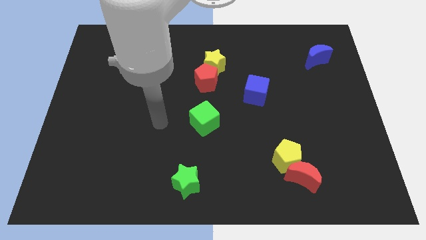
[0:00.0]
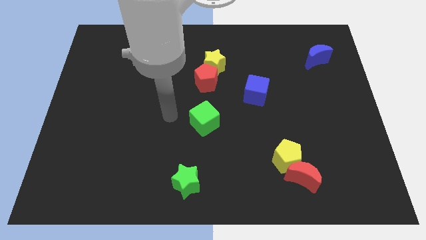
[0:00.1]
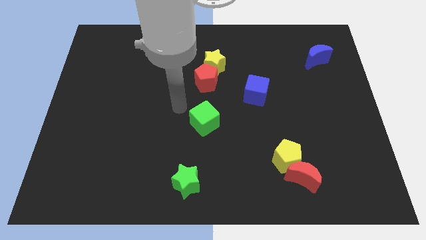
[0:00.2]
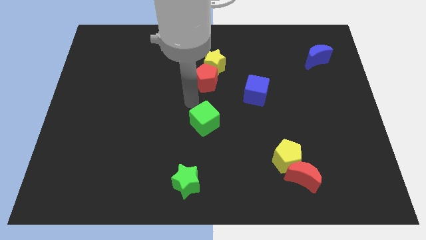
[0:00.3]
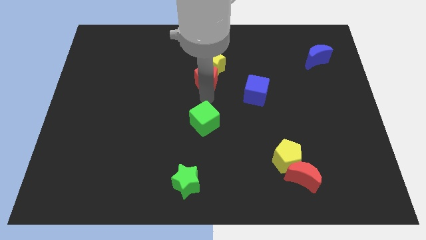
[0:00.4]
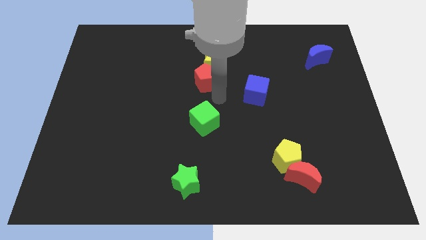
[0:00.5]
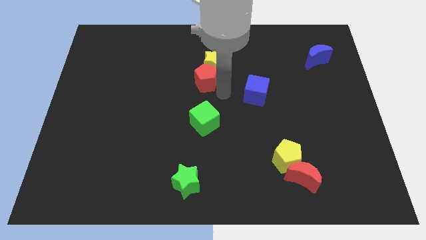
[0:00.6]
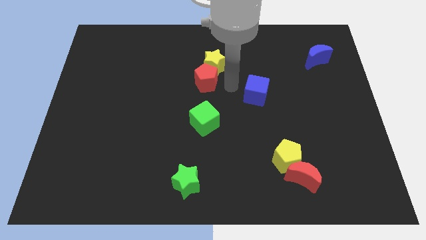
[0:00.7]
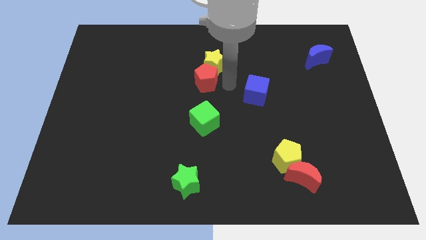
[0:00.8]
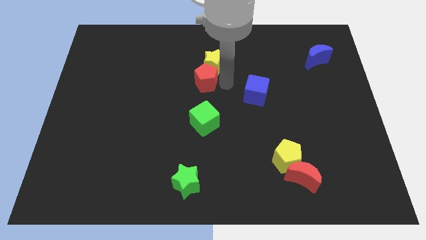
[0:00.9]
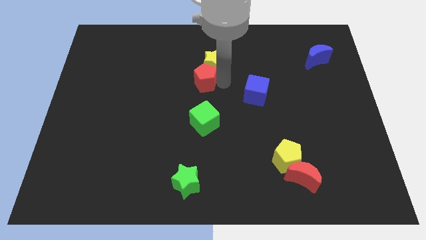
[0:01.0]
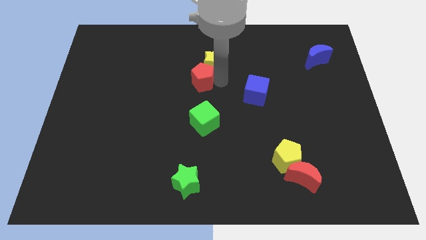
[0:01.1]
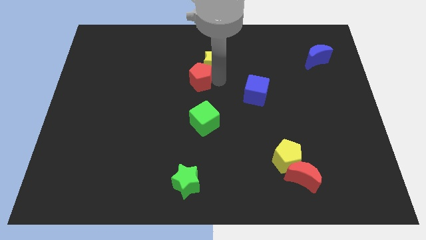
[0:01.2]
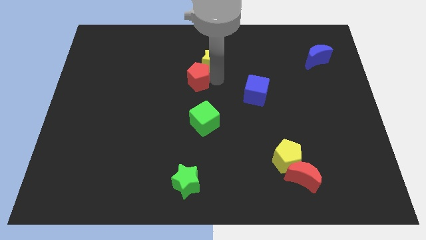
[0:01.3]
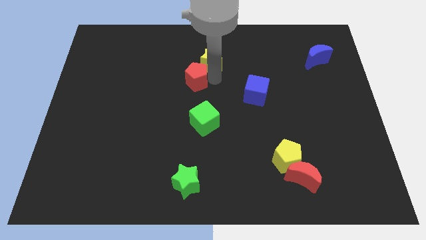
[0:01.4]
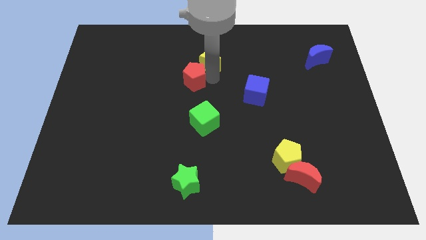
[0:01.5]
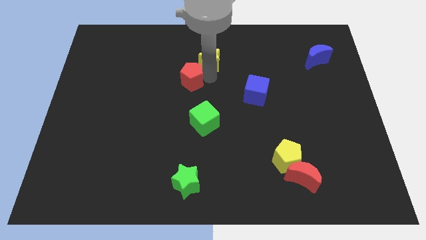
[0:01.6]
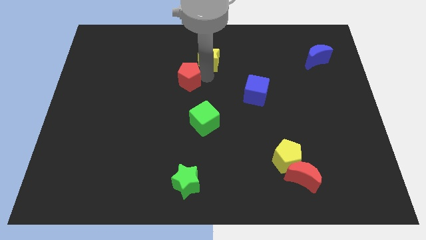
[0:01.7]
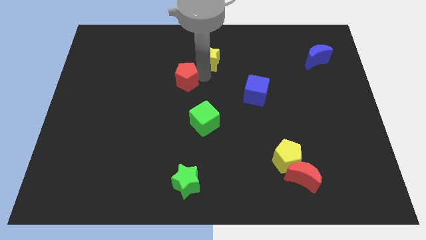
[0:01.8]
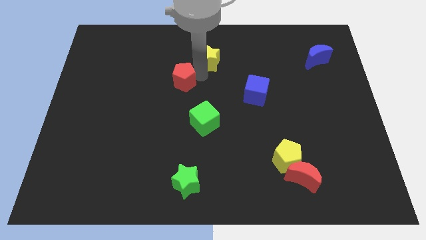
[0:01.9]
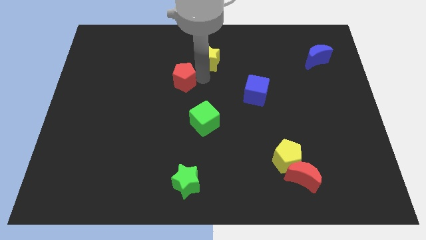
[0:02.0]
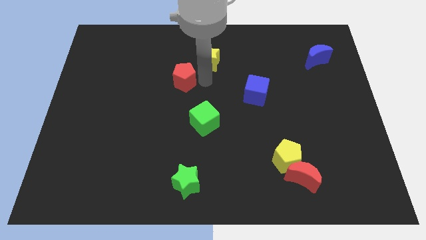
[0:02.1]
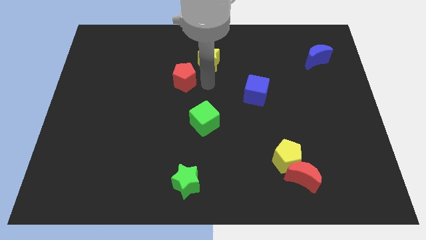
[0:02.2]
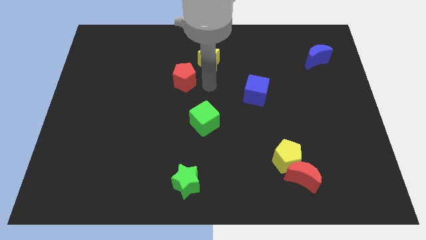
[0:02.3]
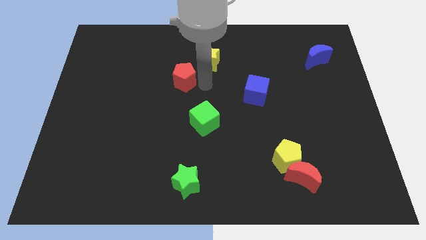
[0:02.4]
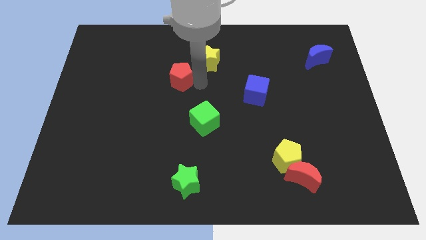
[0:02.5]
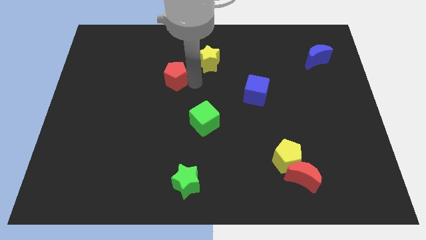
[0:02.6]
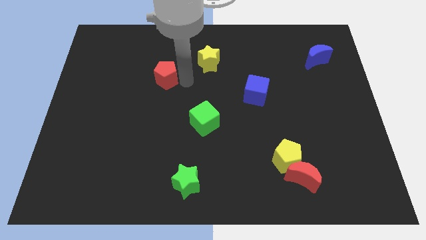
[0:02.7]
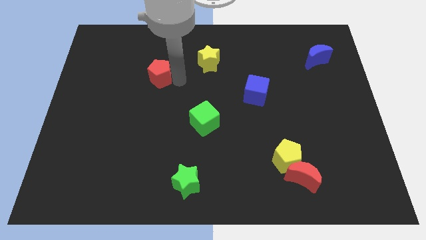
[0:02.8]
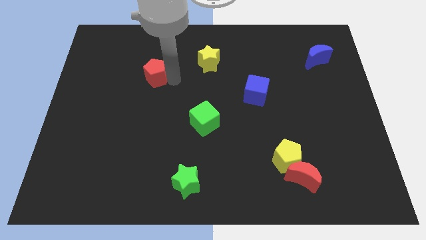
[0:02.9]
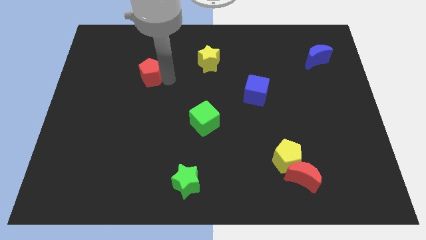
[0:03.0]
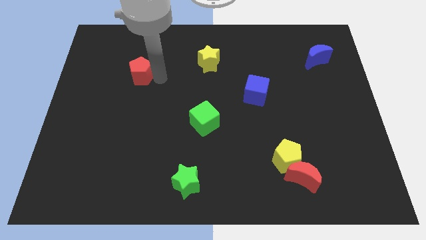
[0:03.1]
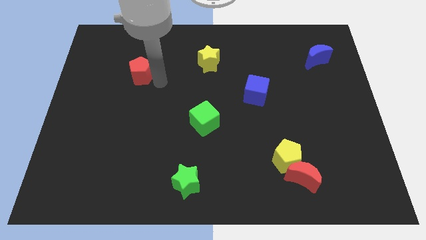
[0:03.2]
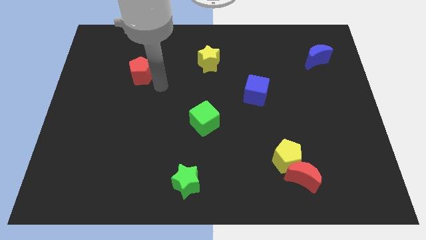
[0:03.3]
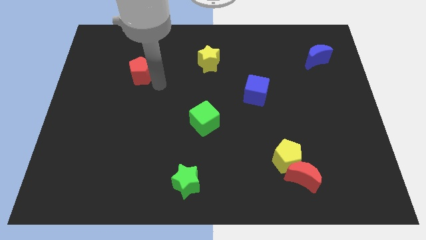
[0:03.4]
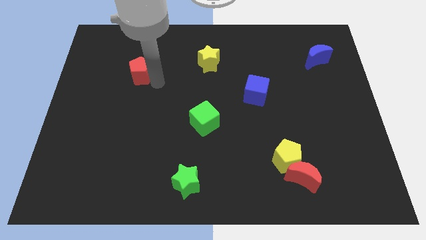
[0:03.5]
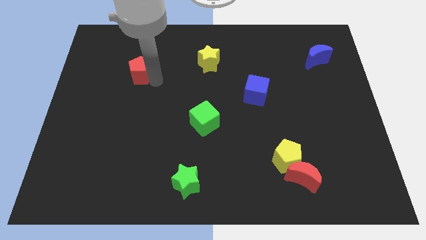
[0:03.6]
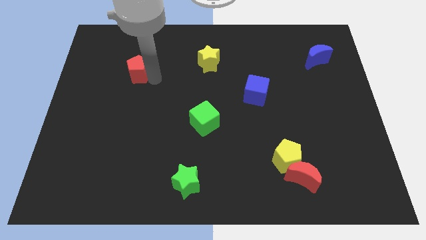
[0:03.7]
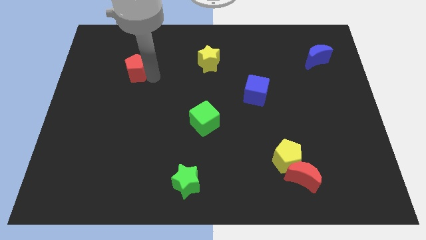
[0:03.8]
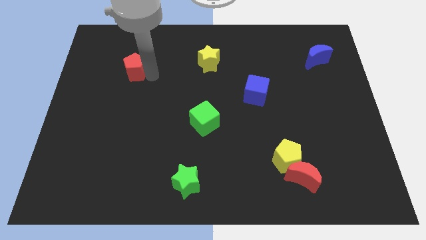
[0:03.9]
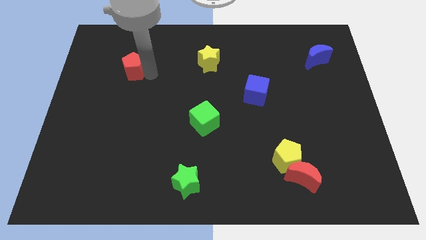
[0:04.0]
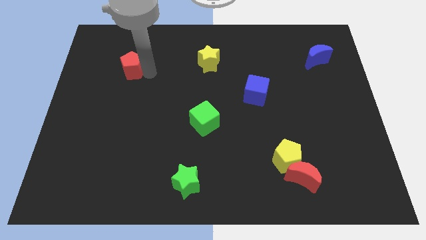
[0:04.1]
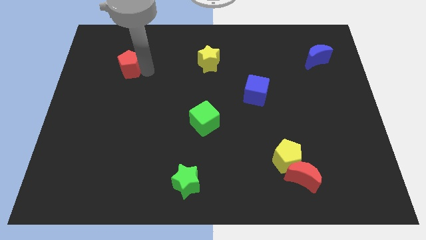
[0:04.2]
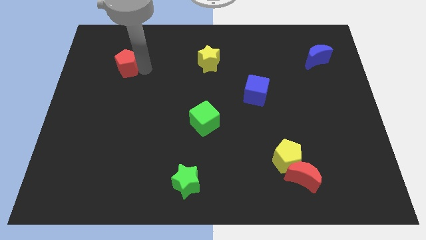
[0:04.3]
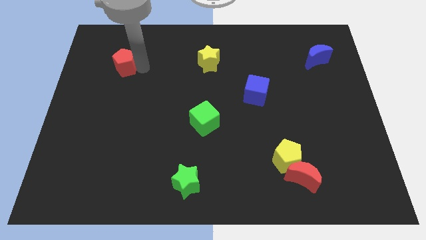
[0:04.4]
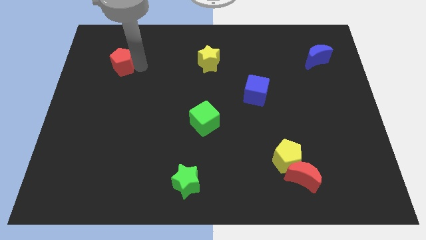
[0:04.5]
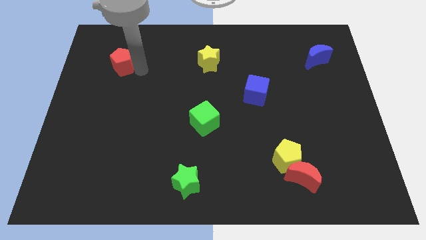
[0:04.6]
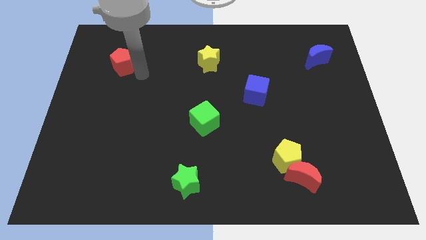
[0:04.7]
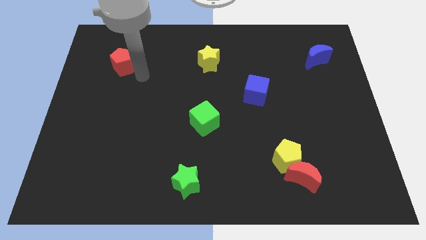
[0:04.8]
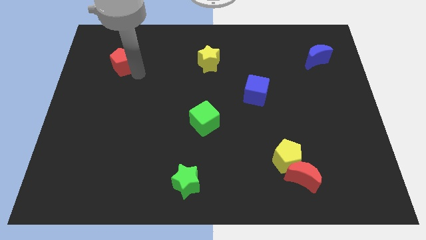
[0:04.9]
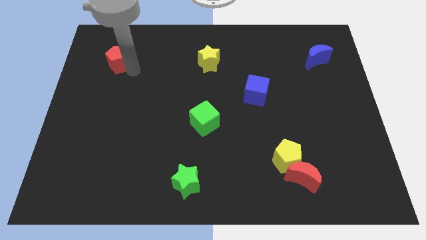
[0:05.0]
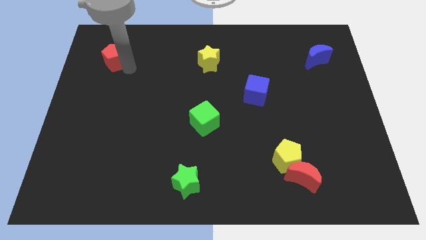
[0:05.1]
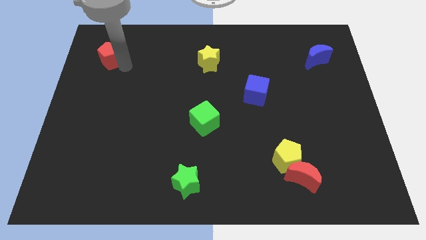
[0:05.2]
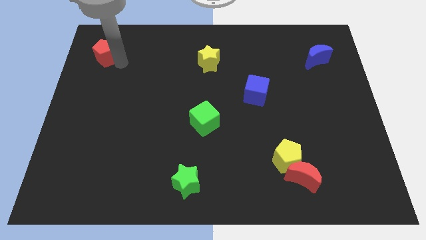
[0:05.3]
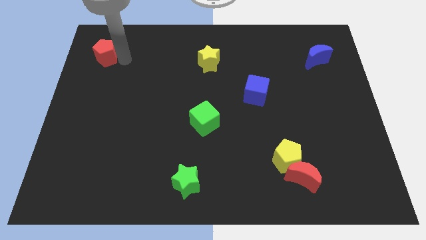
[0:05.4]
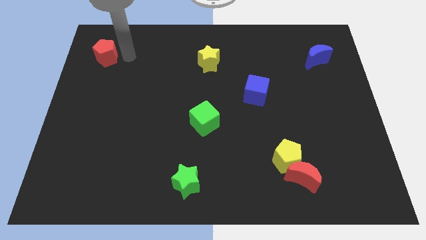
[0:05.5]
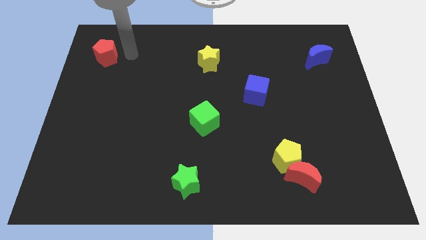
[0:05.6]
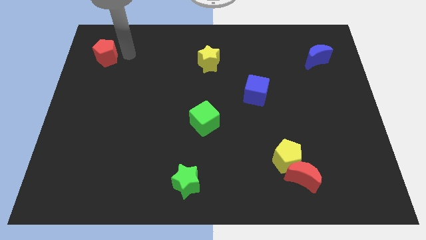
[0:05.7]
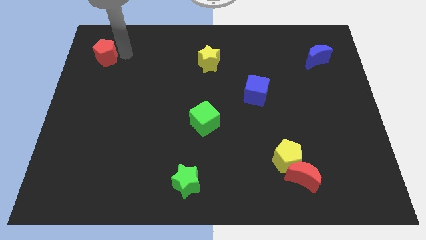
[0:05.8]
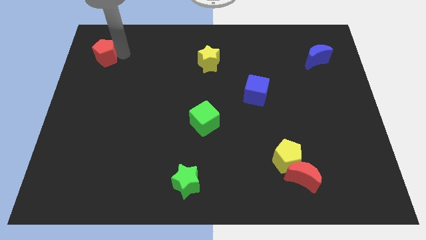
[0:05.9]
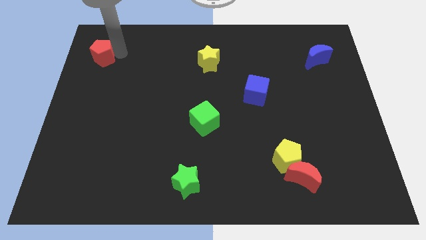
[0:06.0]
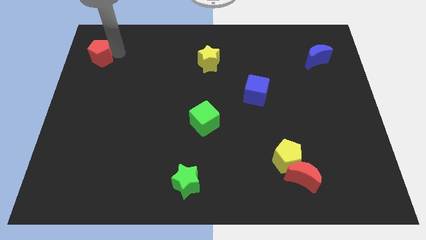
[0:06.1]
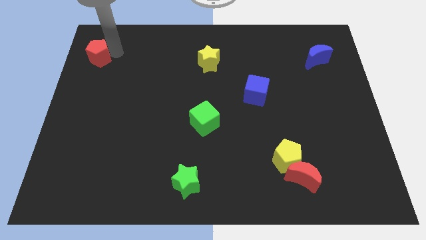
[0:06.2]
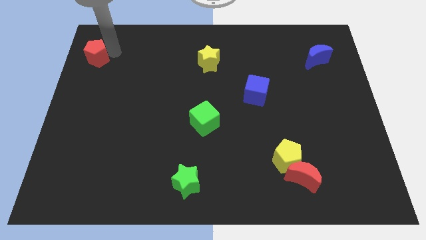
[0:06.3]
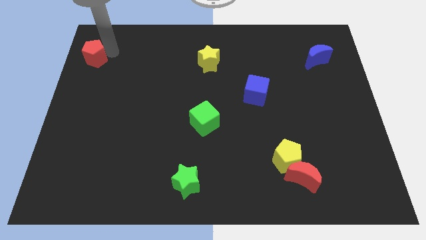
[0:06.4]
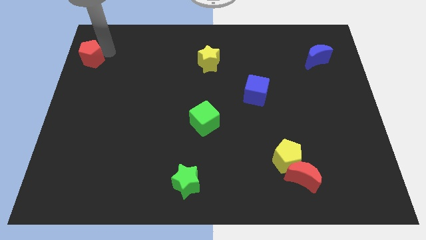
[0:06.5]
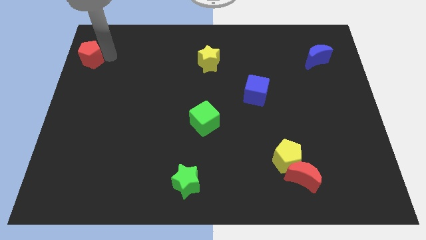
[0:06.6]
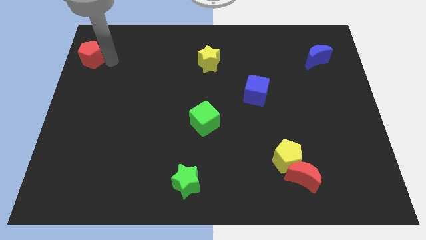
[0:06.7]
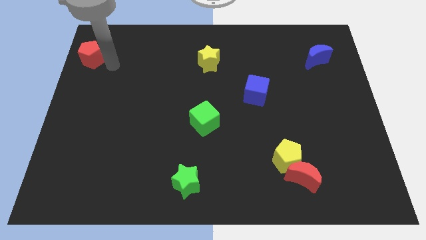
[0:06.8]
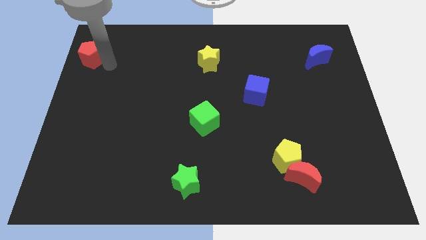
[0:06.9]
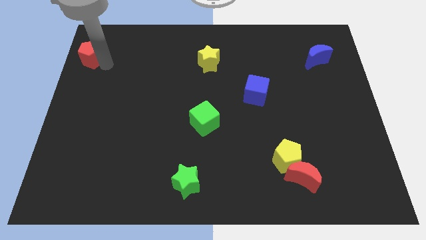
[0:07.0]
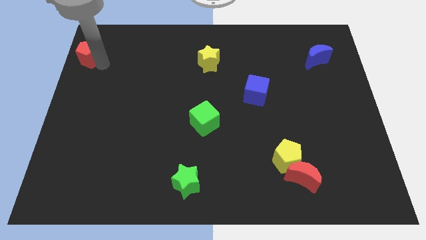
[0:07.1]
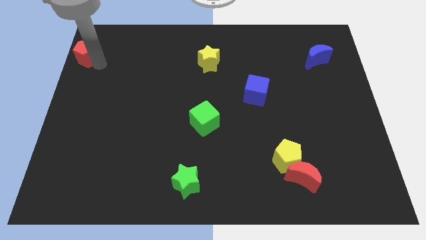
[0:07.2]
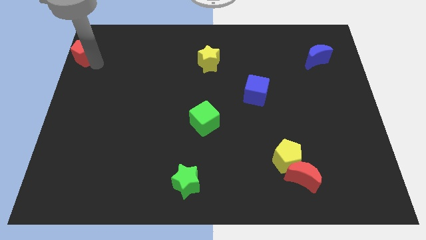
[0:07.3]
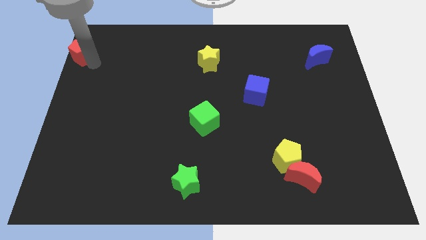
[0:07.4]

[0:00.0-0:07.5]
push the red pentagon to the top left corner
